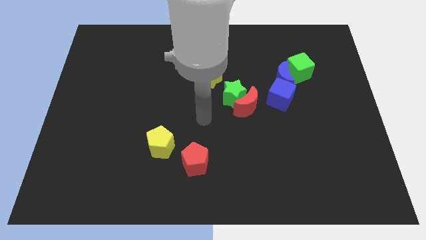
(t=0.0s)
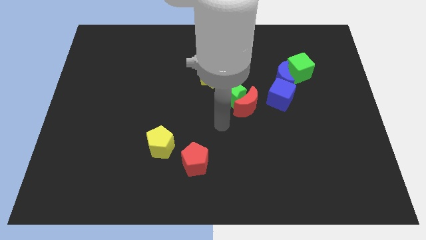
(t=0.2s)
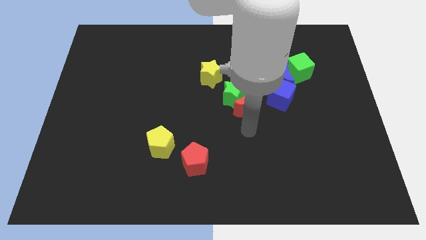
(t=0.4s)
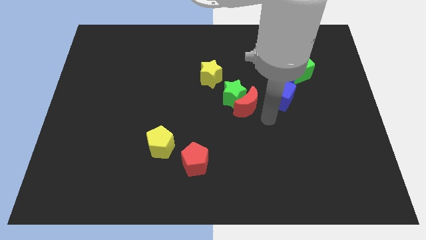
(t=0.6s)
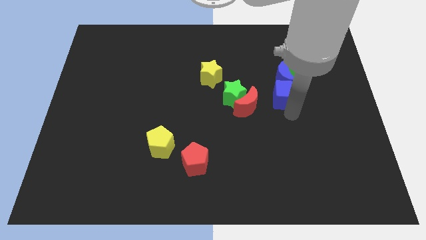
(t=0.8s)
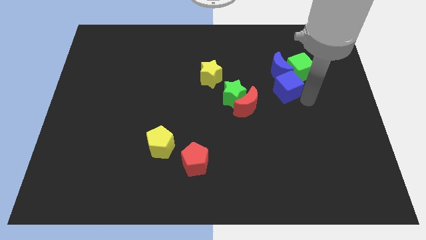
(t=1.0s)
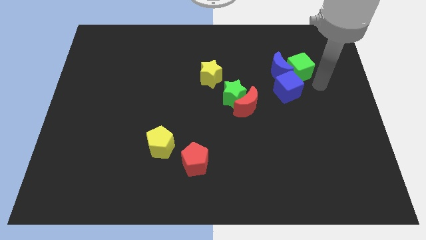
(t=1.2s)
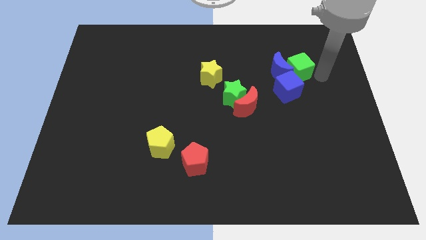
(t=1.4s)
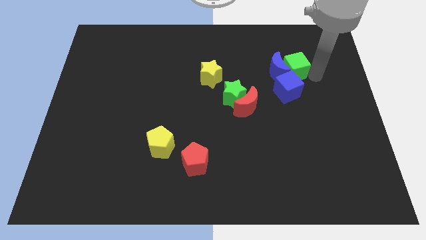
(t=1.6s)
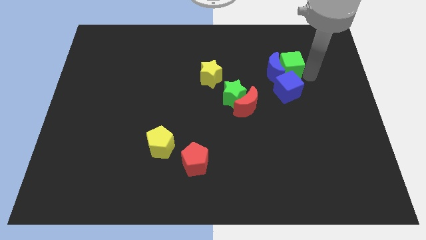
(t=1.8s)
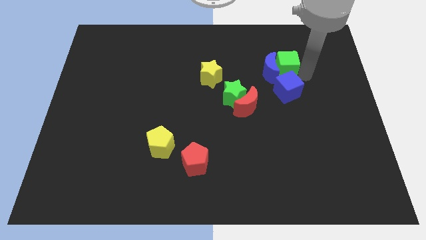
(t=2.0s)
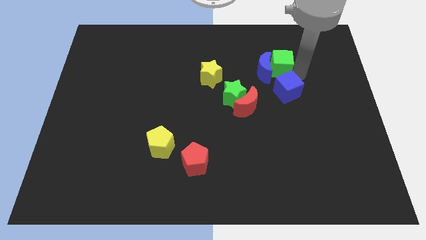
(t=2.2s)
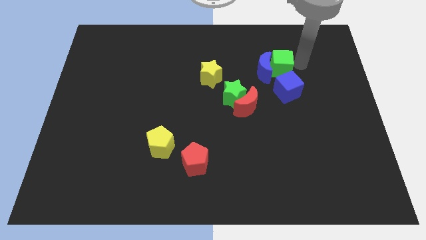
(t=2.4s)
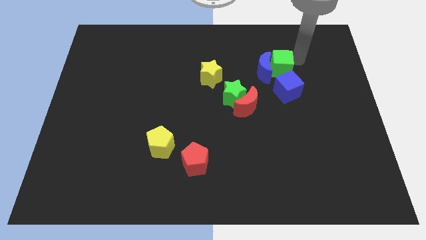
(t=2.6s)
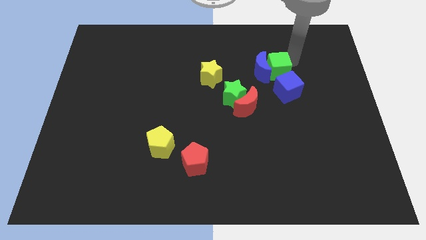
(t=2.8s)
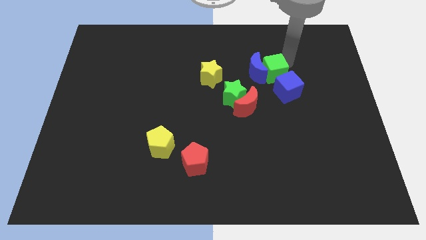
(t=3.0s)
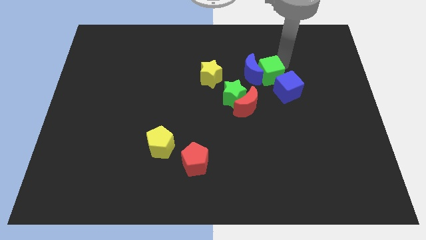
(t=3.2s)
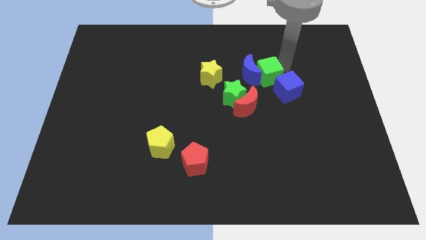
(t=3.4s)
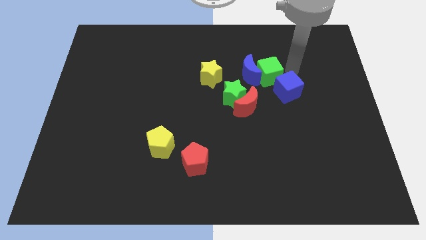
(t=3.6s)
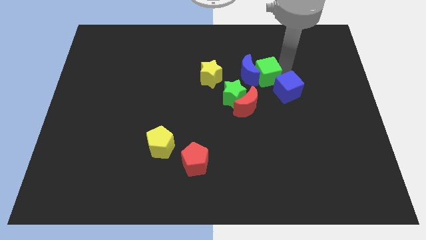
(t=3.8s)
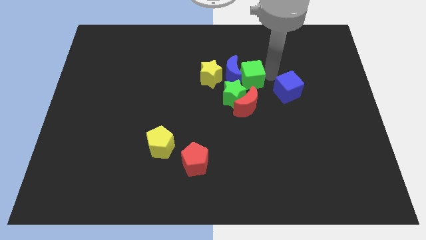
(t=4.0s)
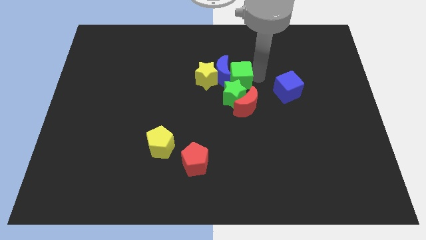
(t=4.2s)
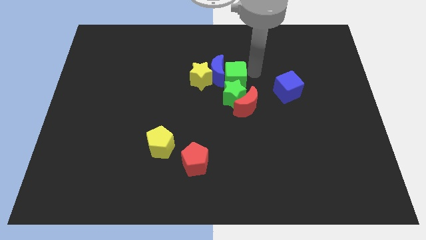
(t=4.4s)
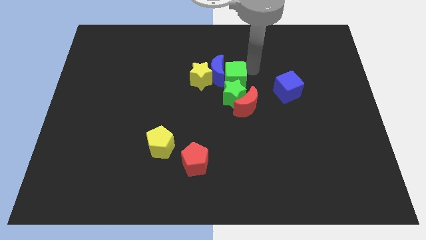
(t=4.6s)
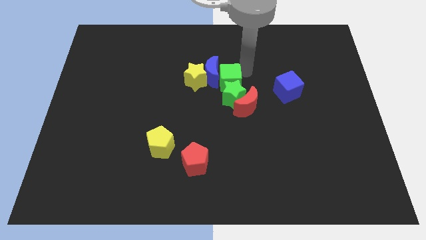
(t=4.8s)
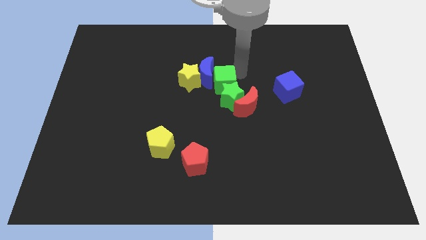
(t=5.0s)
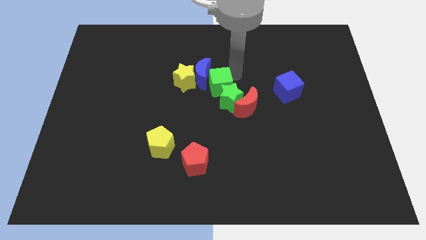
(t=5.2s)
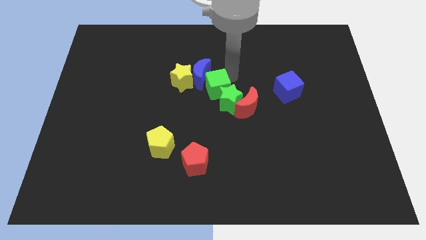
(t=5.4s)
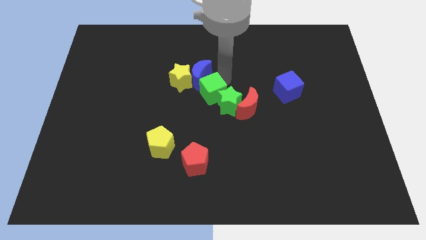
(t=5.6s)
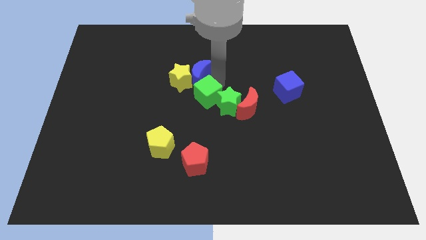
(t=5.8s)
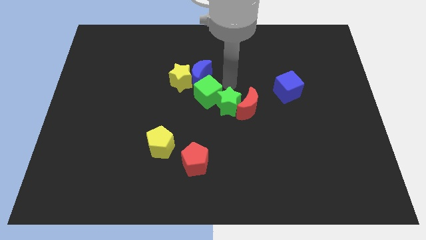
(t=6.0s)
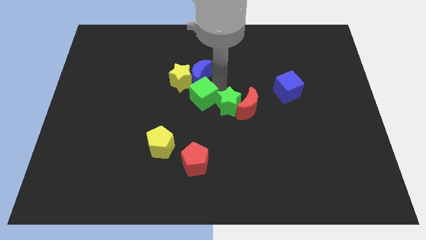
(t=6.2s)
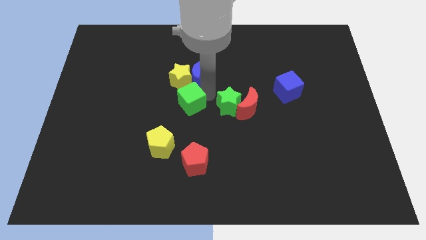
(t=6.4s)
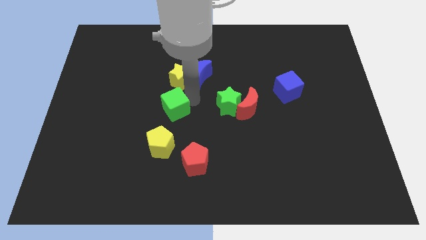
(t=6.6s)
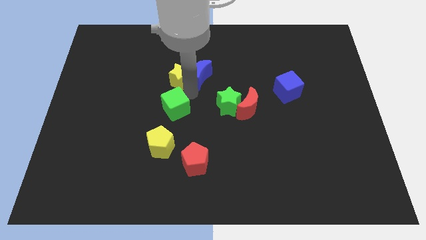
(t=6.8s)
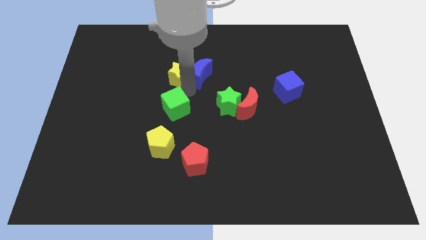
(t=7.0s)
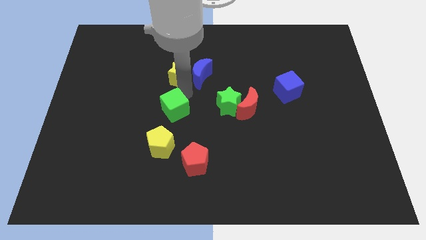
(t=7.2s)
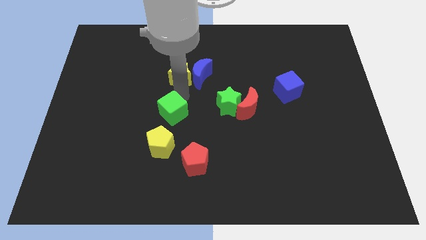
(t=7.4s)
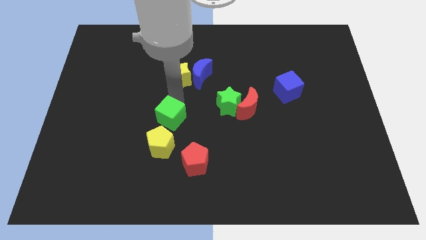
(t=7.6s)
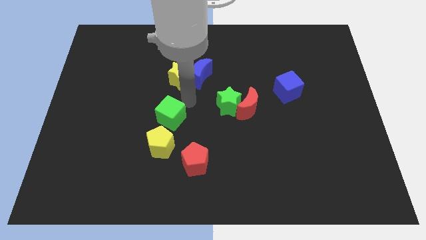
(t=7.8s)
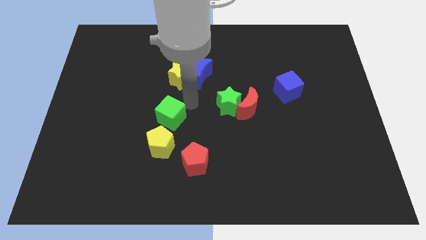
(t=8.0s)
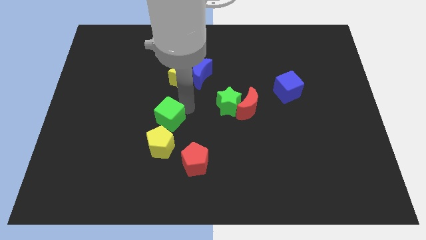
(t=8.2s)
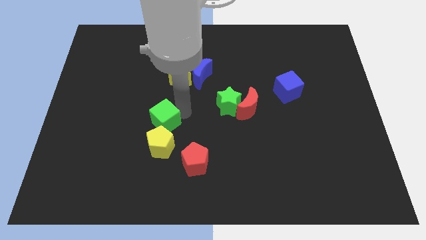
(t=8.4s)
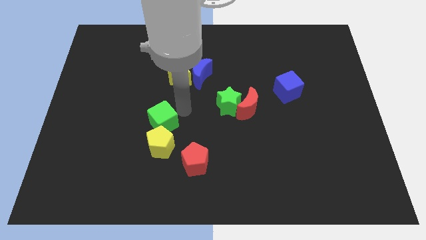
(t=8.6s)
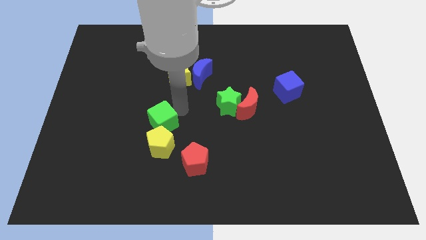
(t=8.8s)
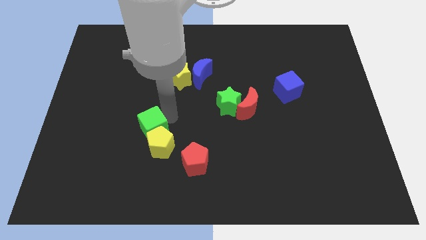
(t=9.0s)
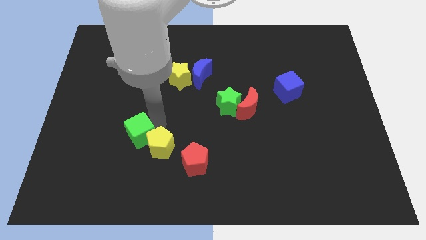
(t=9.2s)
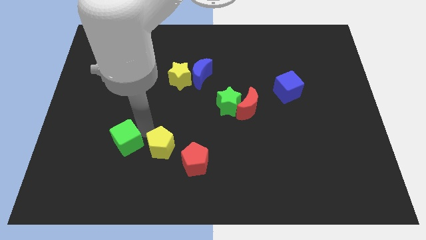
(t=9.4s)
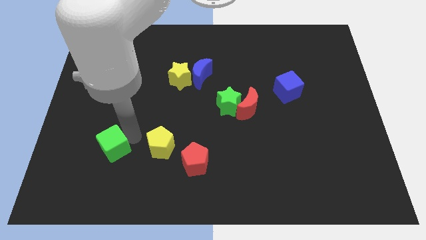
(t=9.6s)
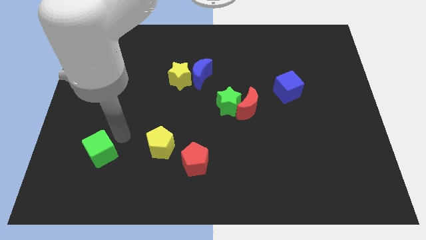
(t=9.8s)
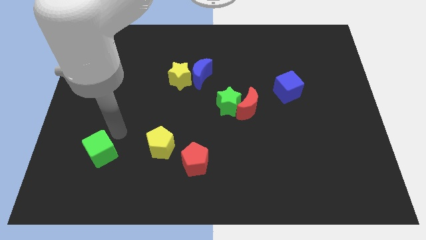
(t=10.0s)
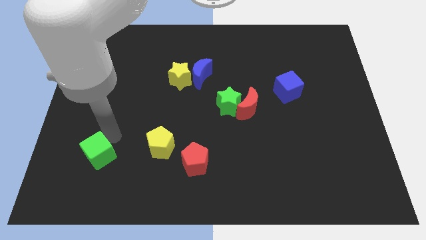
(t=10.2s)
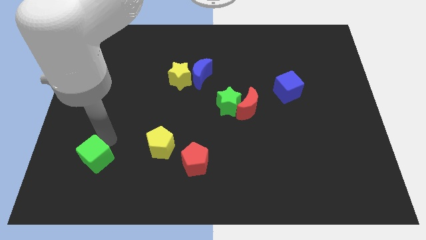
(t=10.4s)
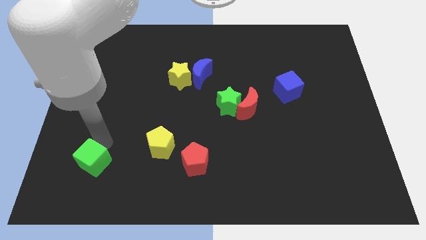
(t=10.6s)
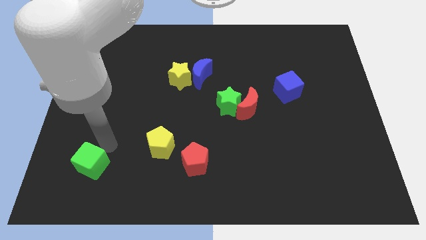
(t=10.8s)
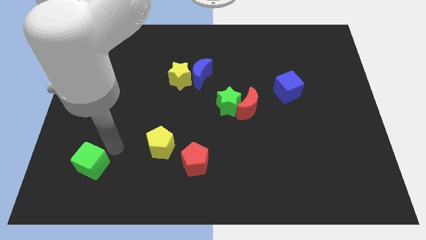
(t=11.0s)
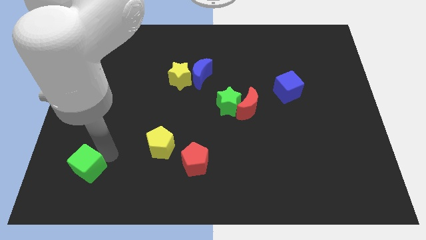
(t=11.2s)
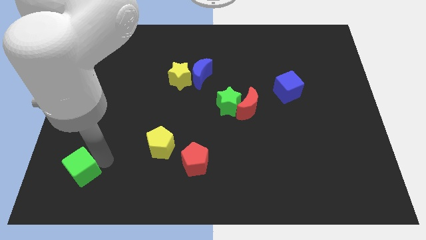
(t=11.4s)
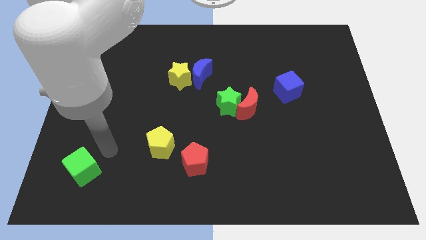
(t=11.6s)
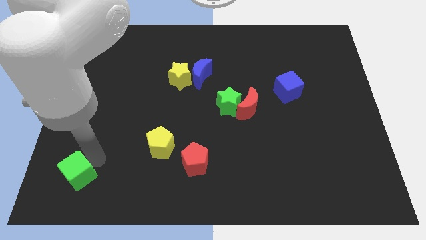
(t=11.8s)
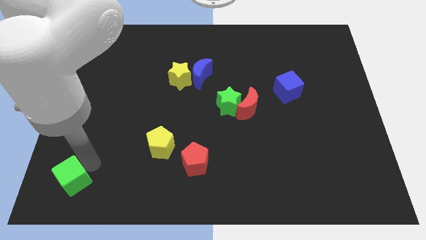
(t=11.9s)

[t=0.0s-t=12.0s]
push the green cube to the bottom left corner
